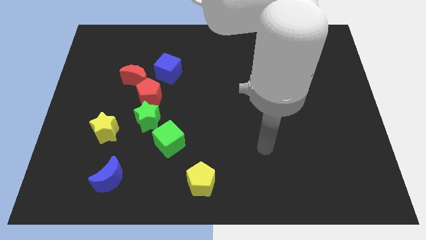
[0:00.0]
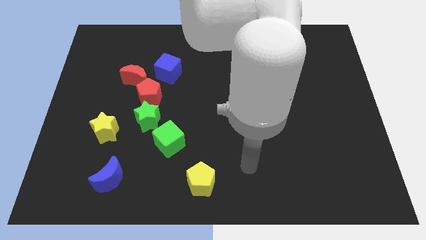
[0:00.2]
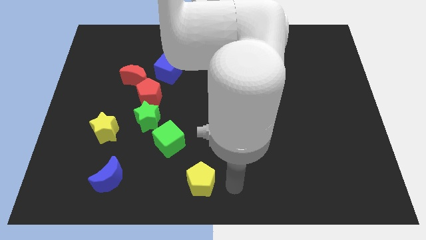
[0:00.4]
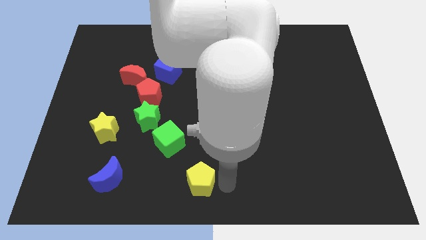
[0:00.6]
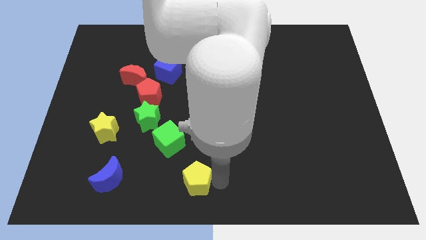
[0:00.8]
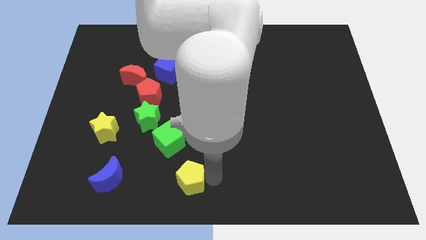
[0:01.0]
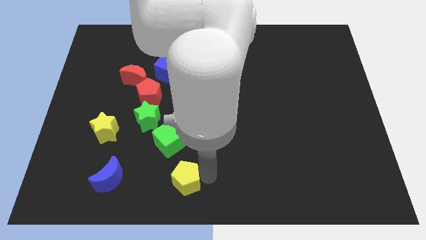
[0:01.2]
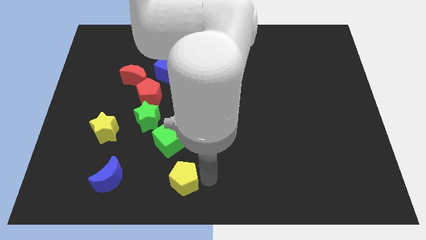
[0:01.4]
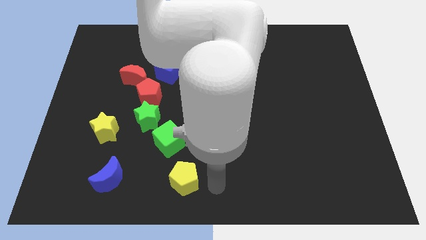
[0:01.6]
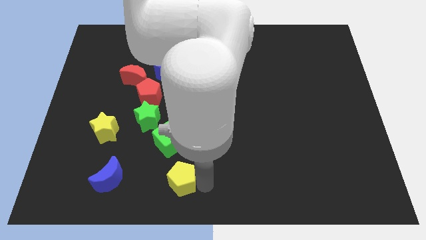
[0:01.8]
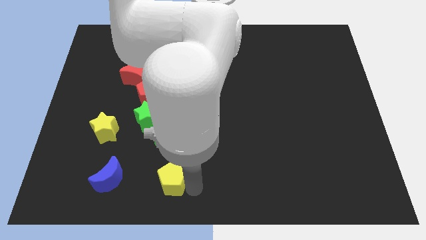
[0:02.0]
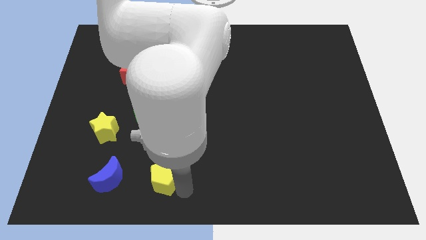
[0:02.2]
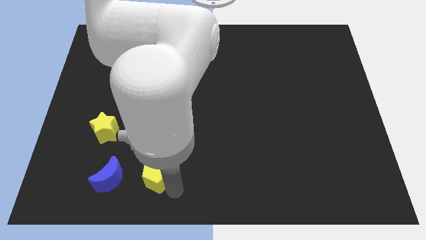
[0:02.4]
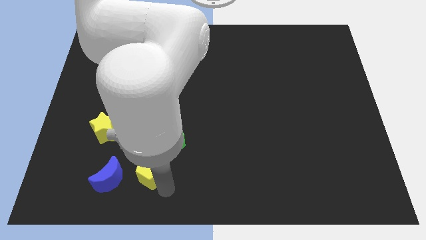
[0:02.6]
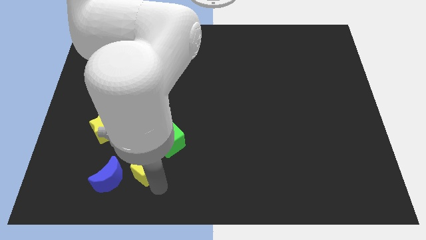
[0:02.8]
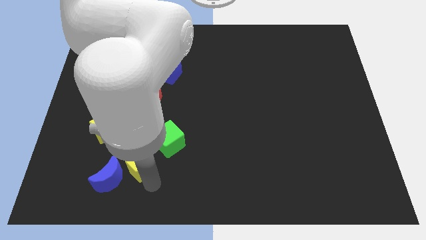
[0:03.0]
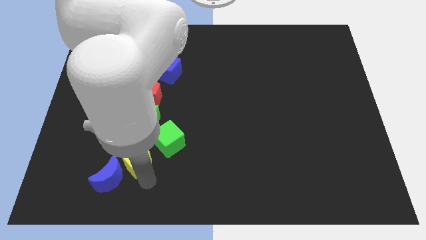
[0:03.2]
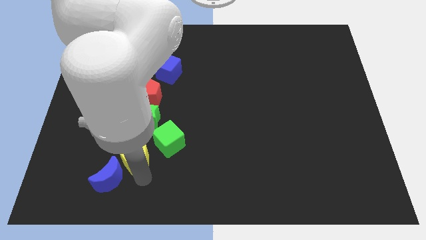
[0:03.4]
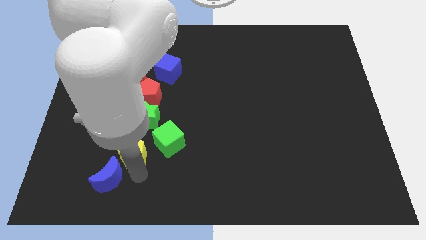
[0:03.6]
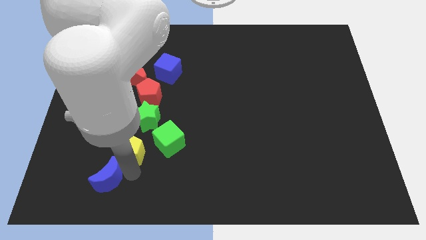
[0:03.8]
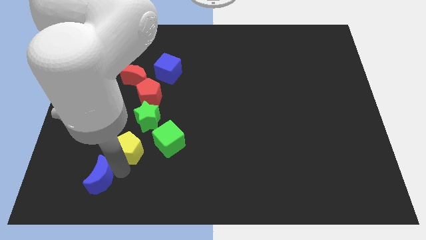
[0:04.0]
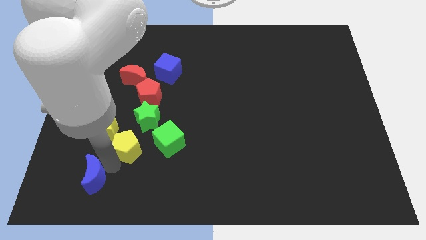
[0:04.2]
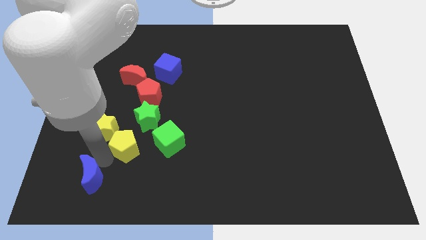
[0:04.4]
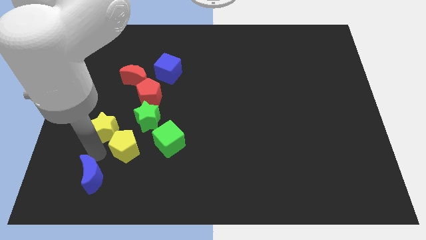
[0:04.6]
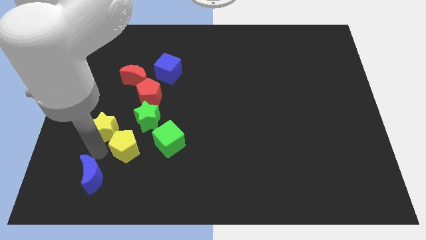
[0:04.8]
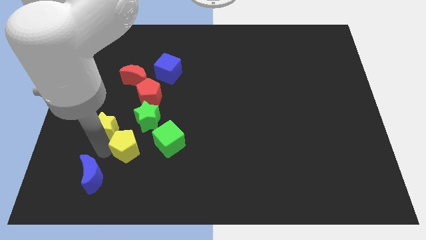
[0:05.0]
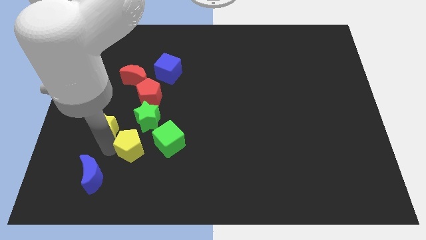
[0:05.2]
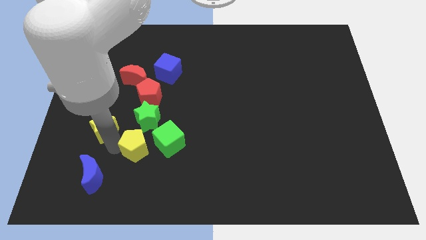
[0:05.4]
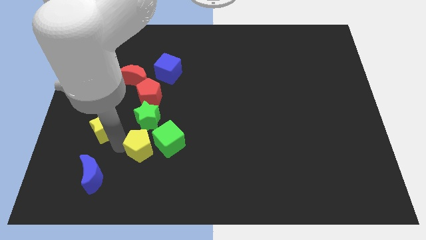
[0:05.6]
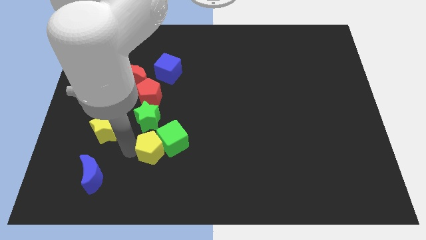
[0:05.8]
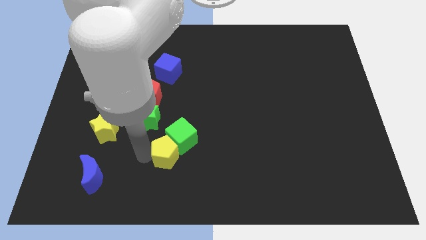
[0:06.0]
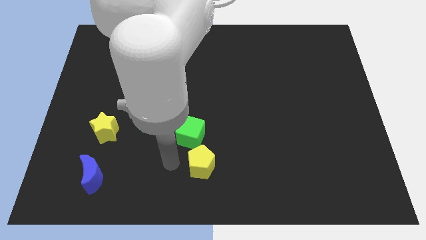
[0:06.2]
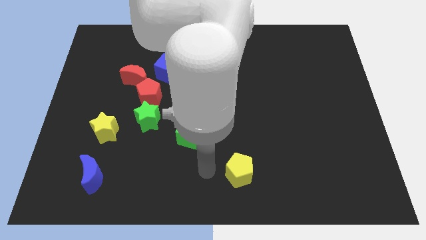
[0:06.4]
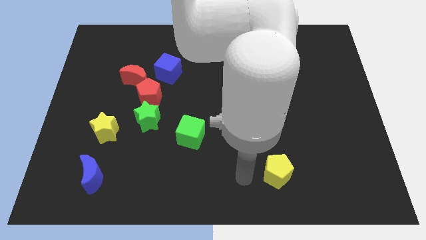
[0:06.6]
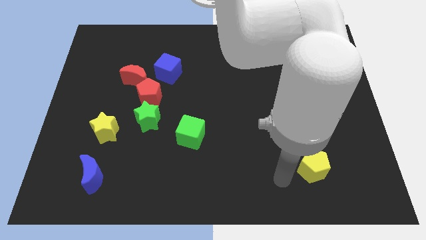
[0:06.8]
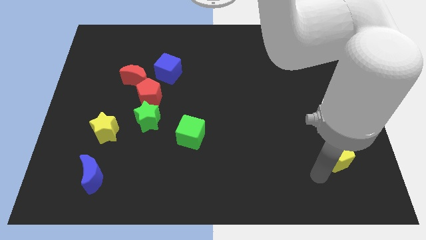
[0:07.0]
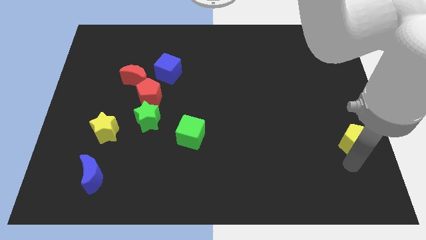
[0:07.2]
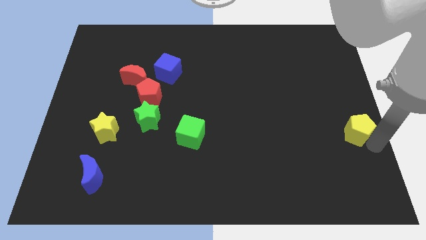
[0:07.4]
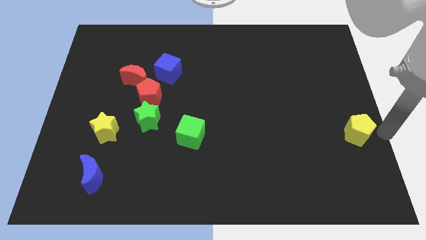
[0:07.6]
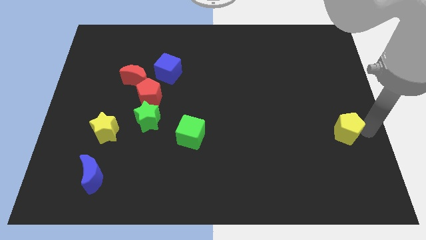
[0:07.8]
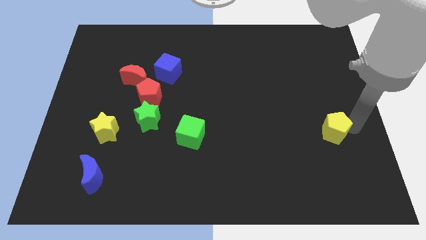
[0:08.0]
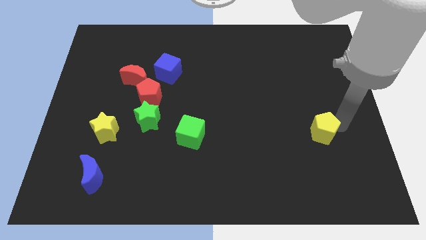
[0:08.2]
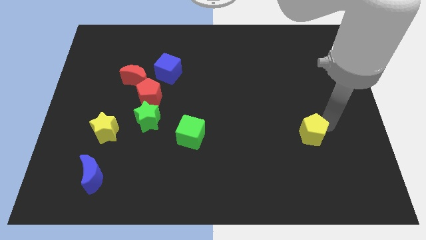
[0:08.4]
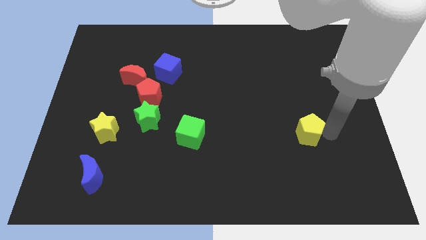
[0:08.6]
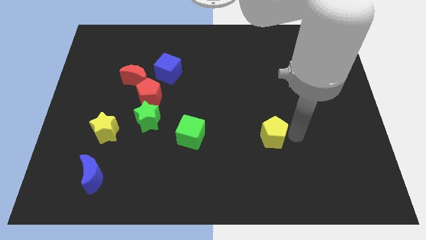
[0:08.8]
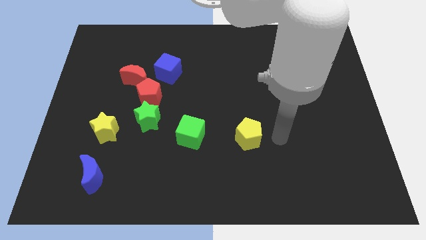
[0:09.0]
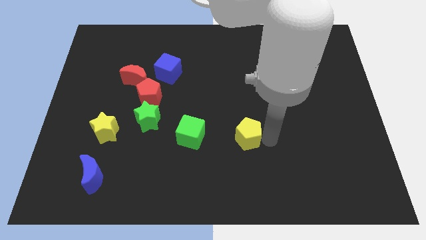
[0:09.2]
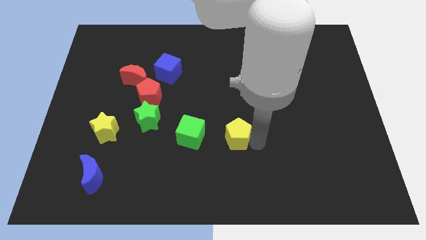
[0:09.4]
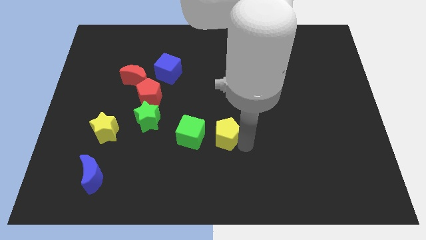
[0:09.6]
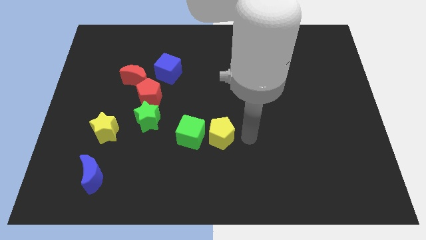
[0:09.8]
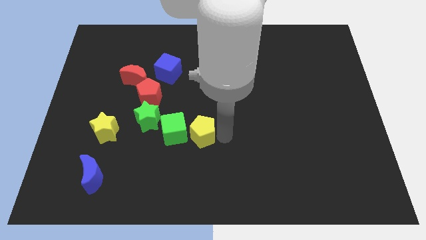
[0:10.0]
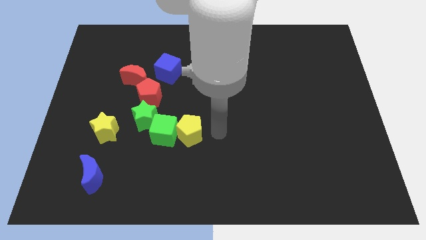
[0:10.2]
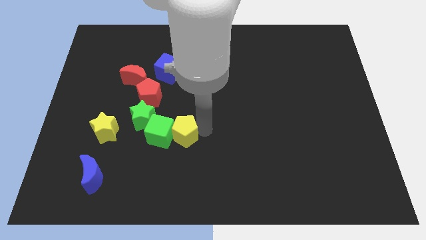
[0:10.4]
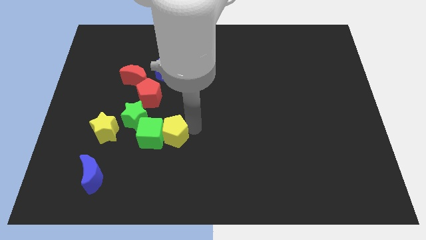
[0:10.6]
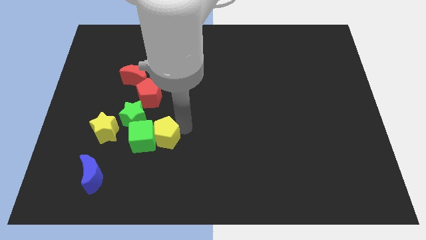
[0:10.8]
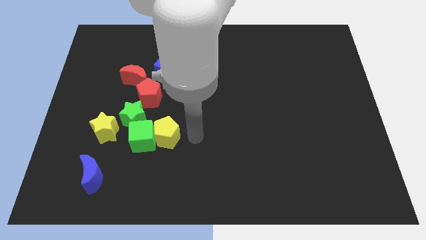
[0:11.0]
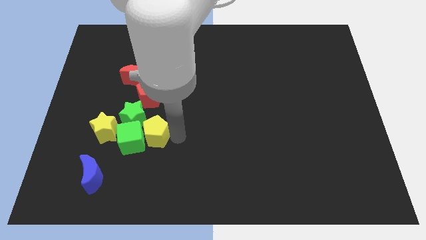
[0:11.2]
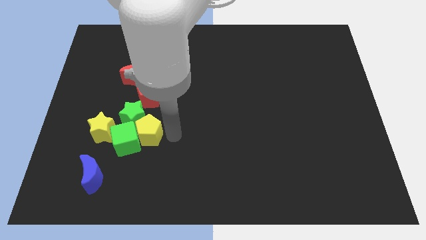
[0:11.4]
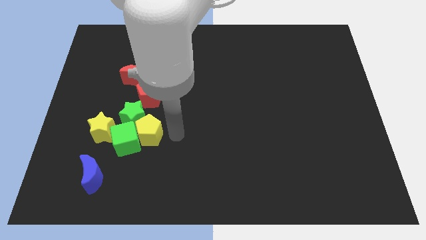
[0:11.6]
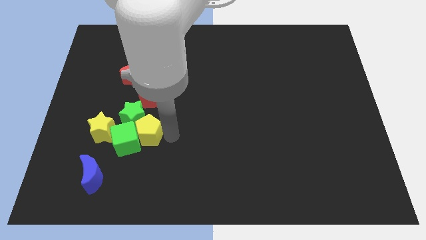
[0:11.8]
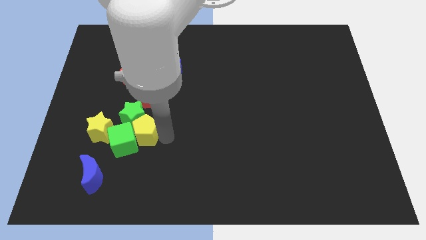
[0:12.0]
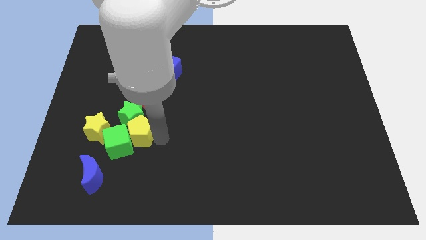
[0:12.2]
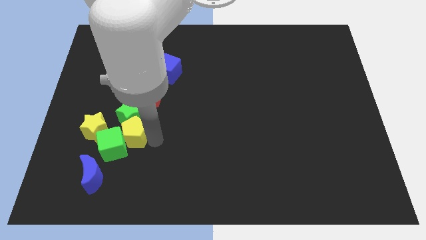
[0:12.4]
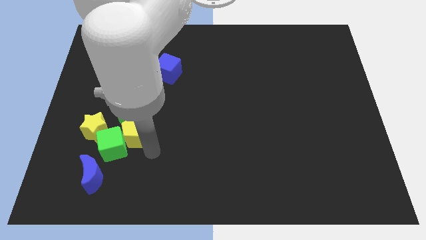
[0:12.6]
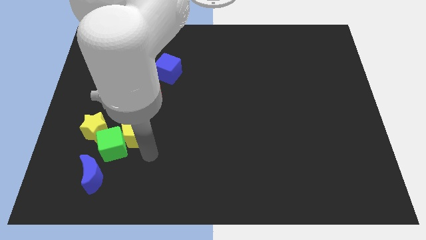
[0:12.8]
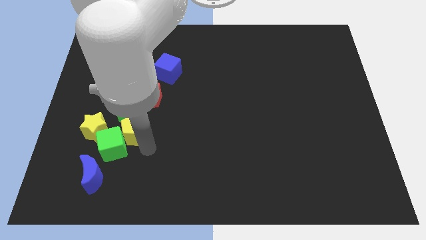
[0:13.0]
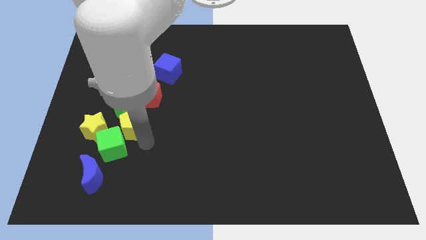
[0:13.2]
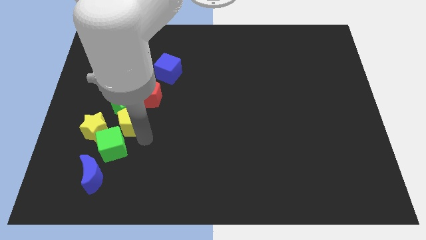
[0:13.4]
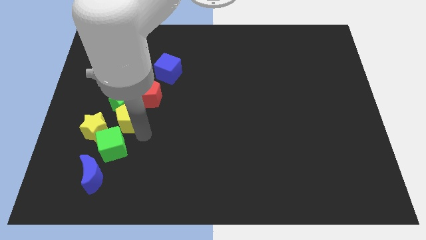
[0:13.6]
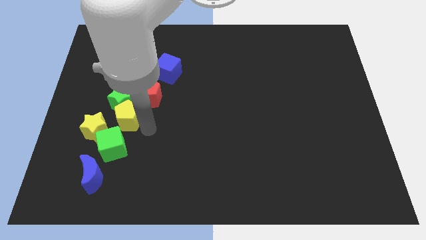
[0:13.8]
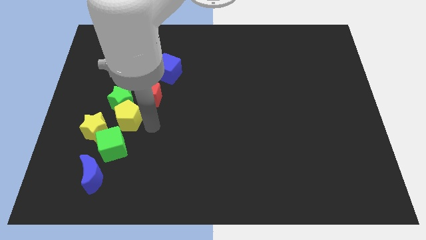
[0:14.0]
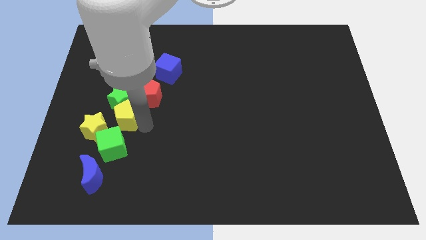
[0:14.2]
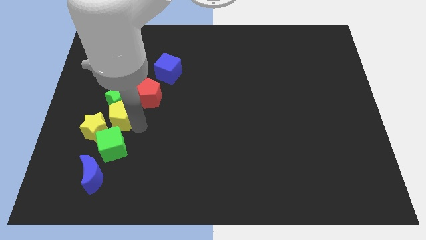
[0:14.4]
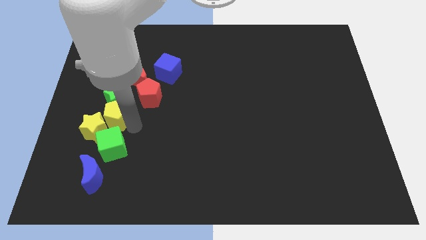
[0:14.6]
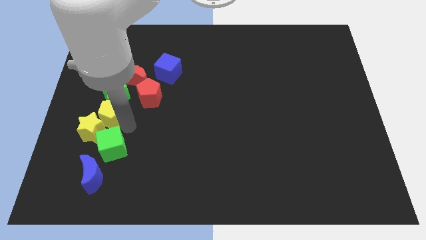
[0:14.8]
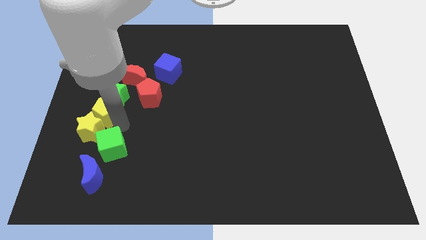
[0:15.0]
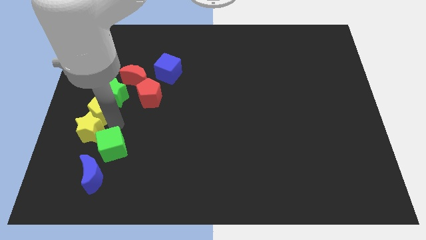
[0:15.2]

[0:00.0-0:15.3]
put the yellow pentagon to the left side of the board
